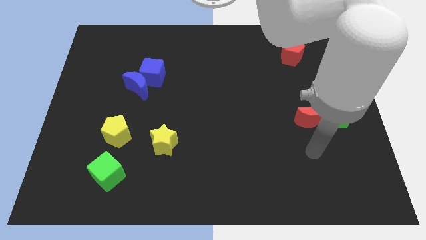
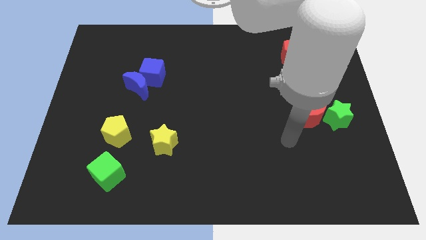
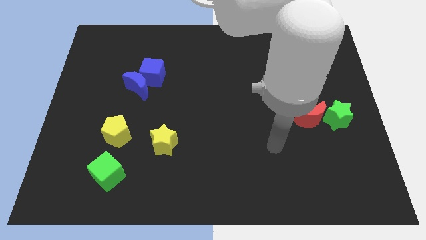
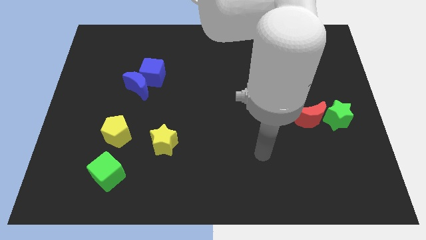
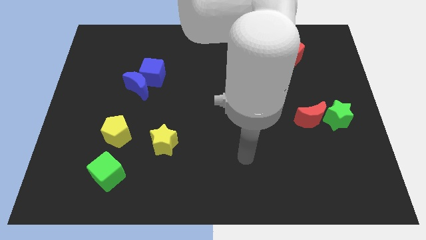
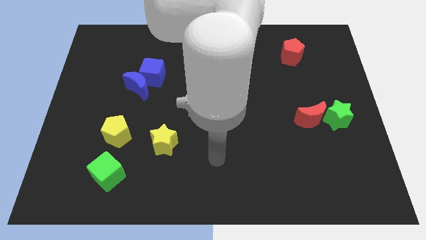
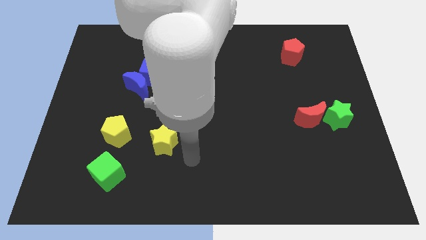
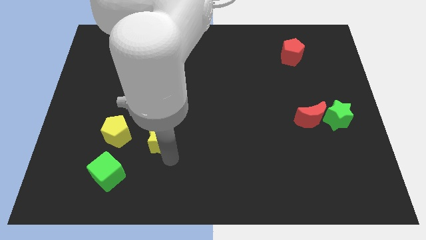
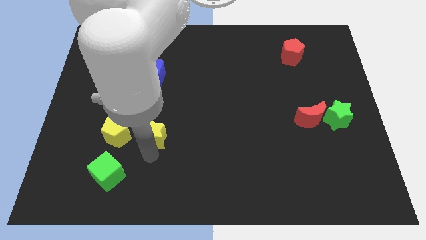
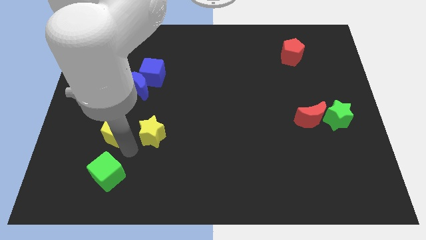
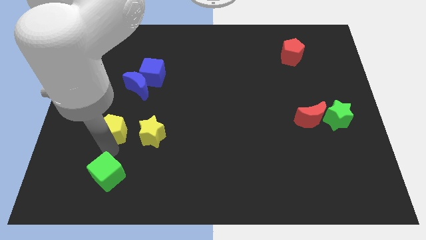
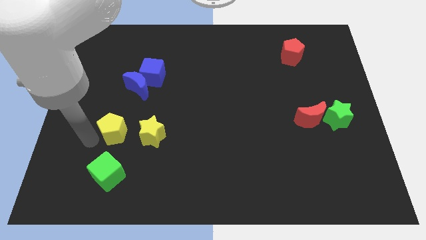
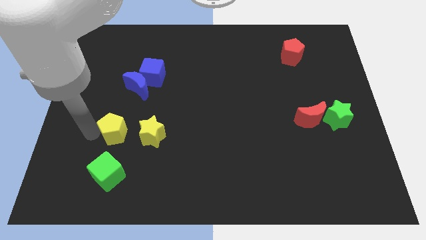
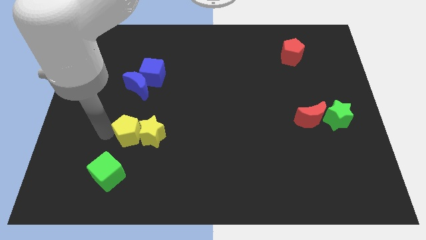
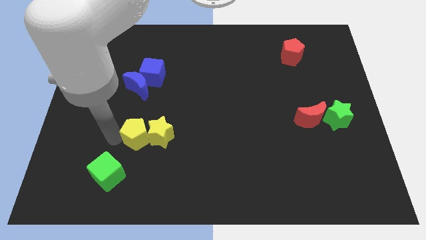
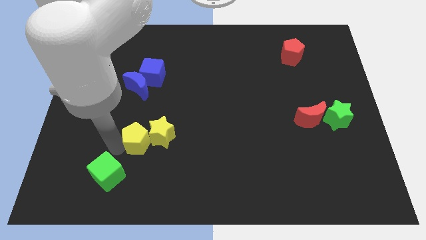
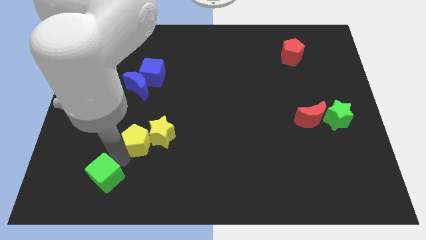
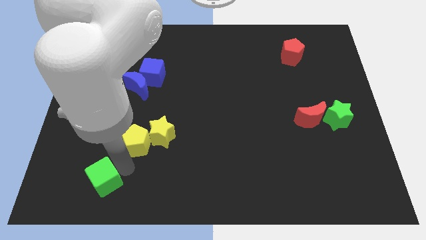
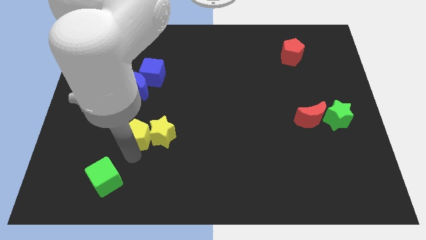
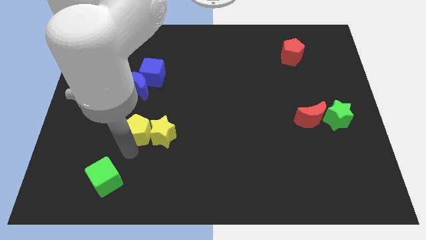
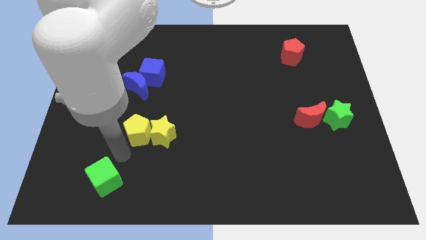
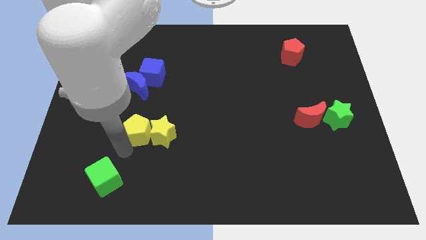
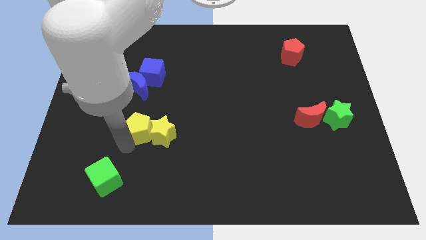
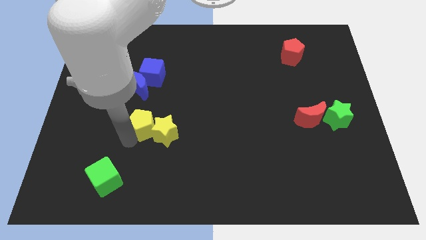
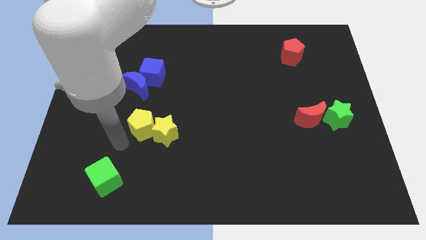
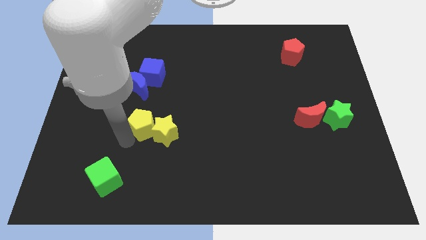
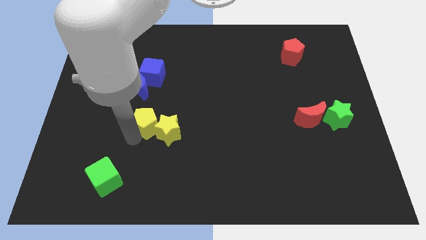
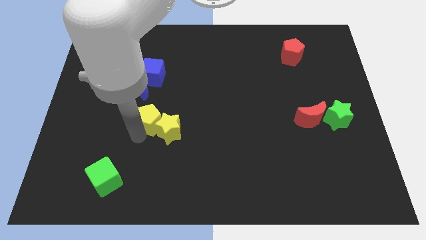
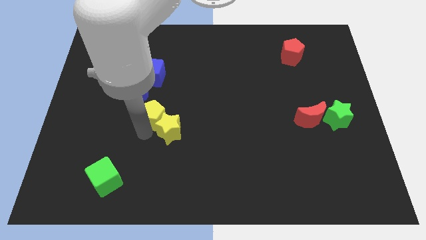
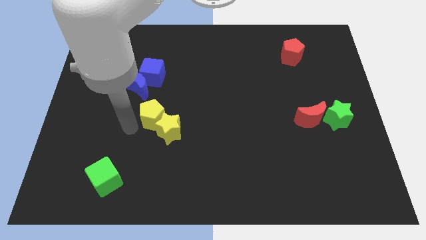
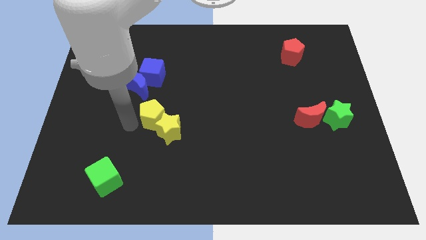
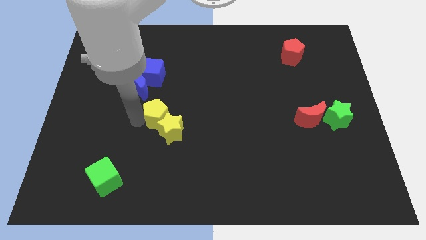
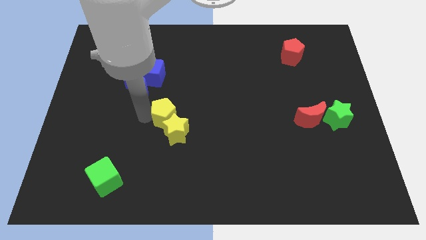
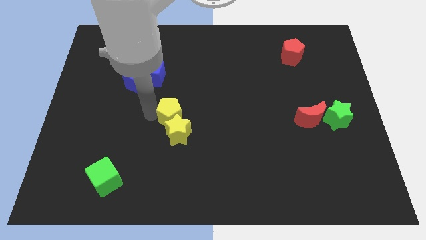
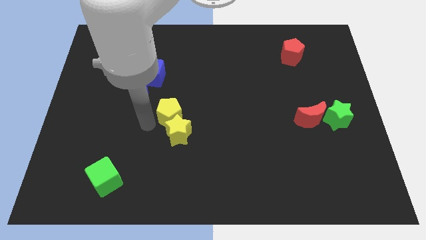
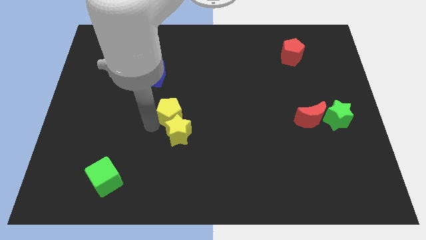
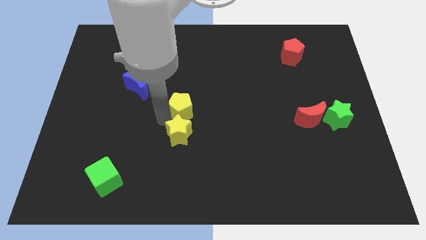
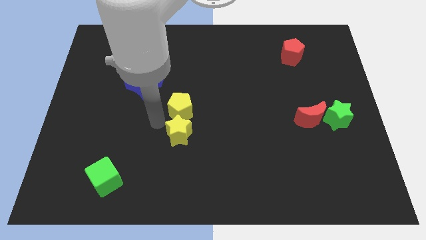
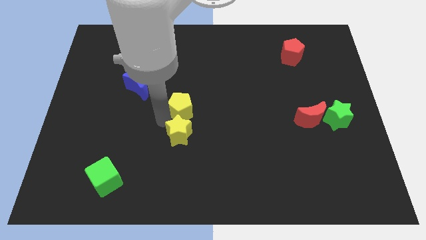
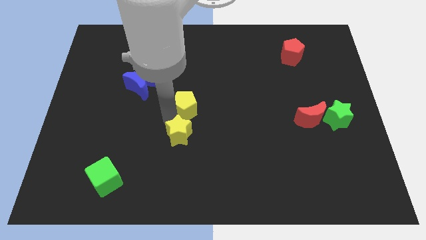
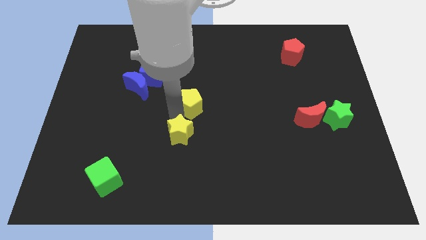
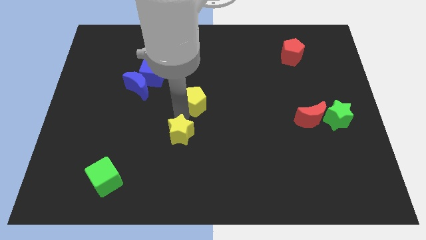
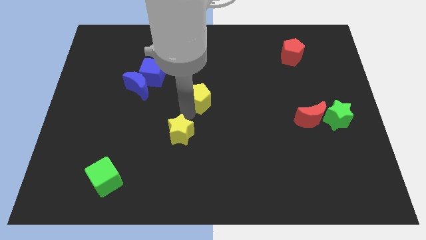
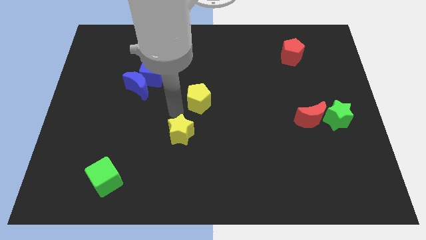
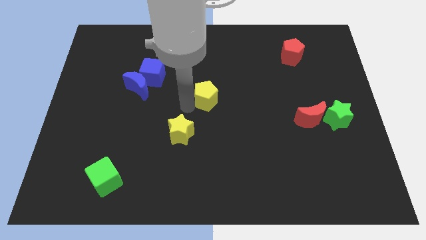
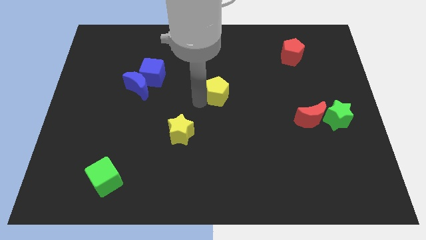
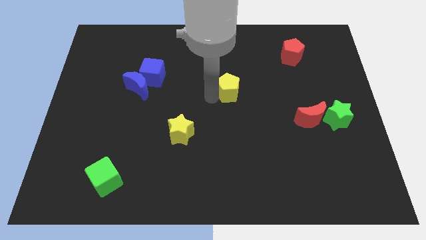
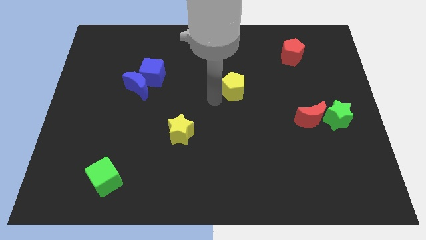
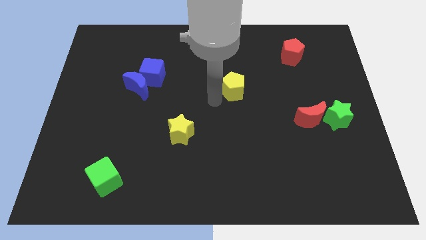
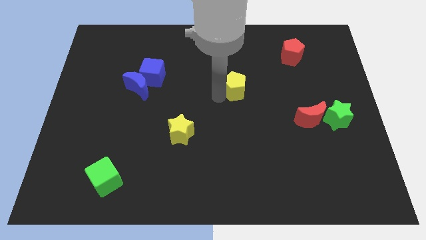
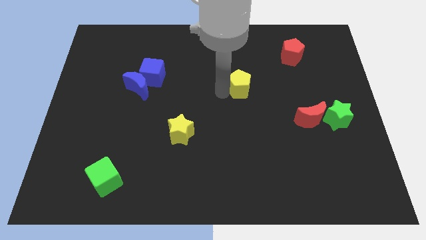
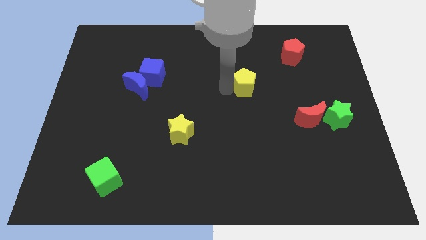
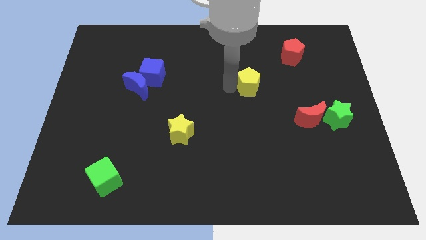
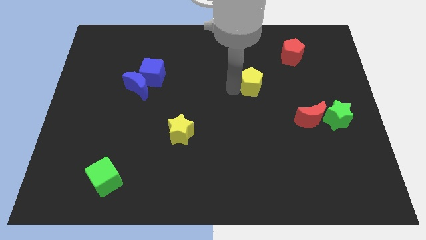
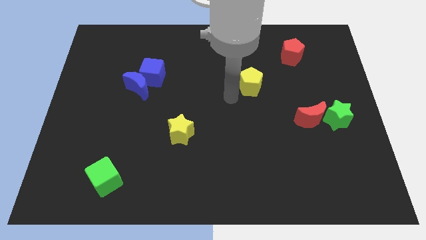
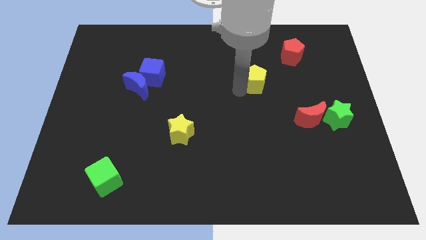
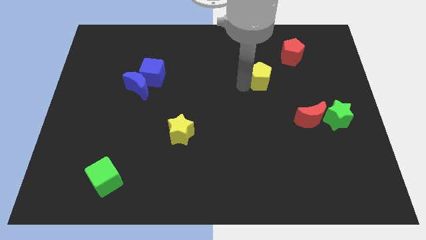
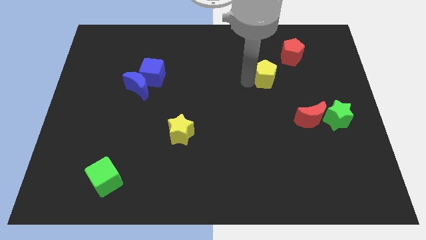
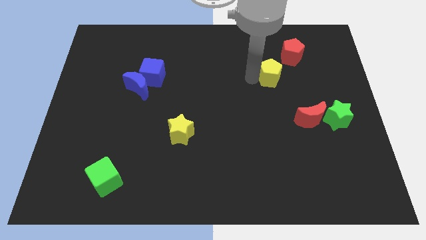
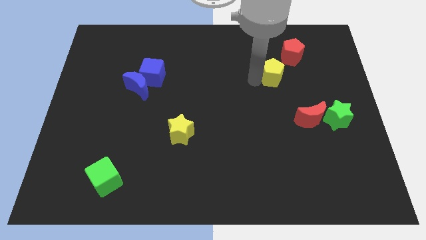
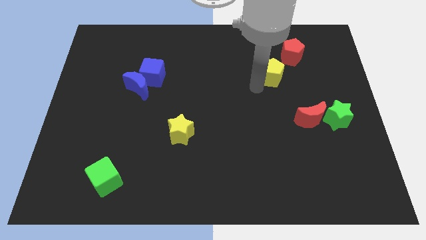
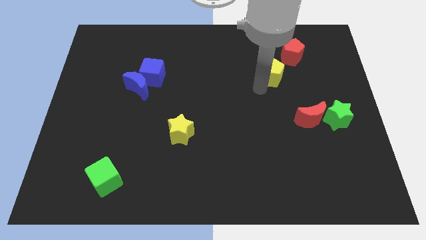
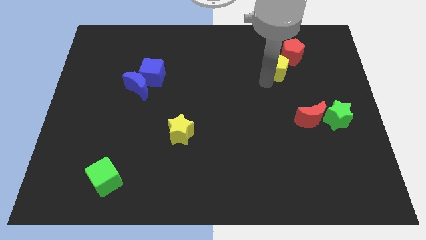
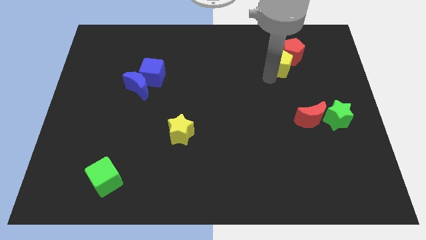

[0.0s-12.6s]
put the yellow pentagon close to the red pentagon

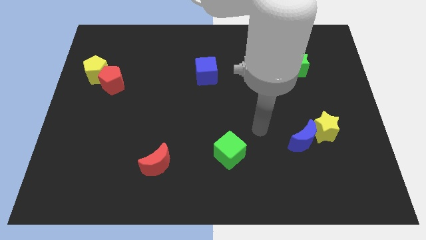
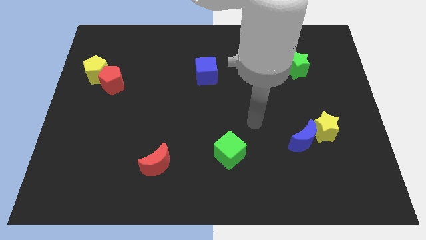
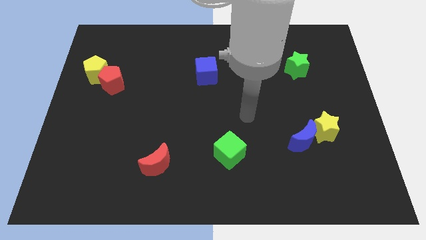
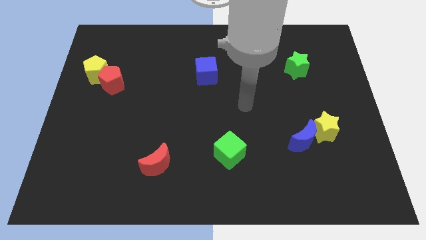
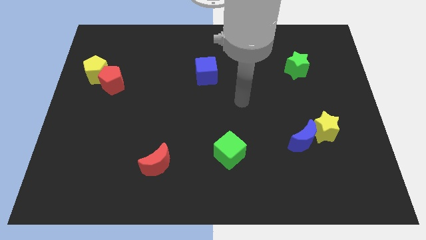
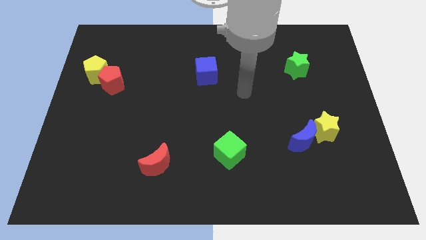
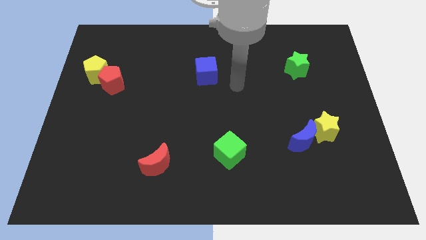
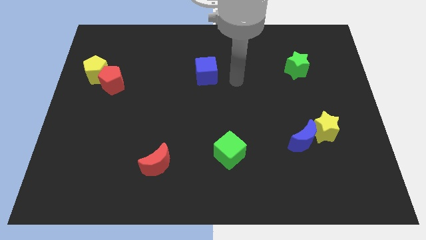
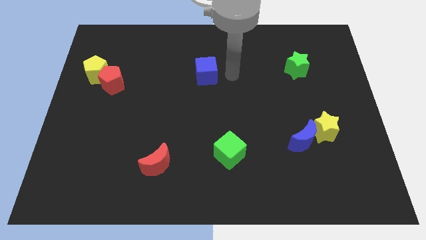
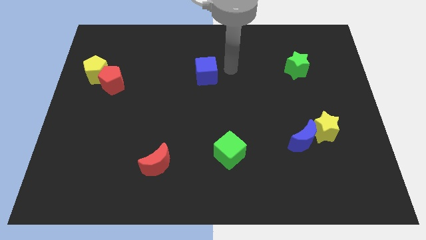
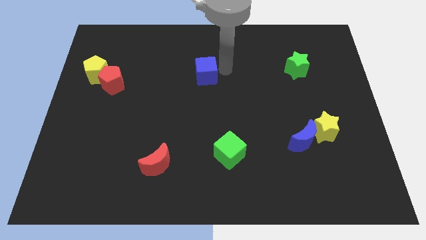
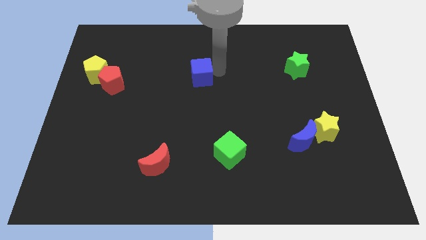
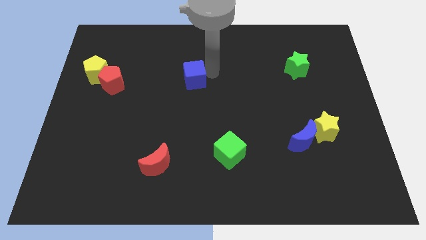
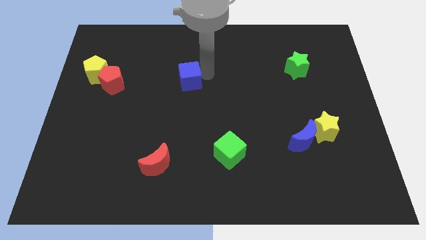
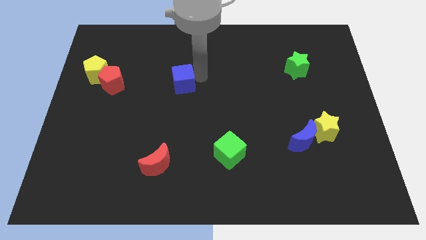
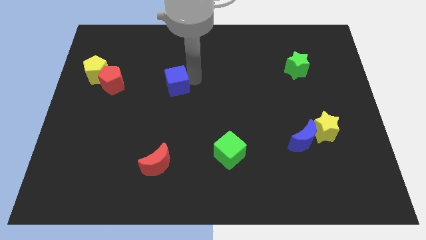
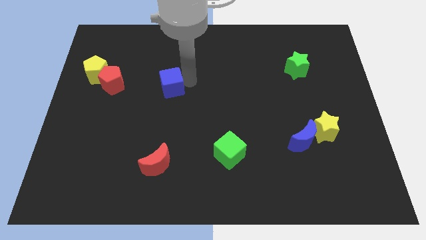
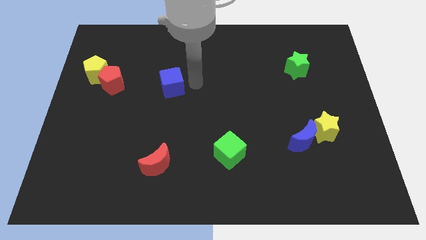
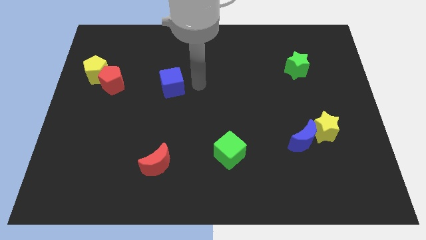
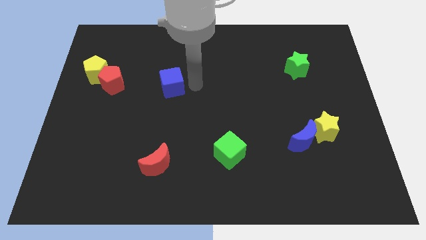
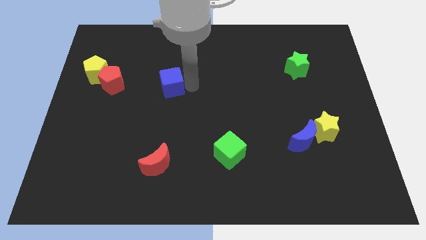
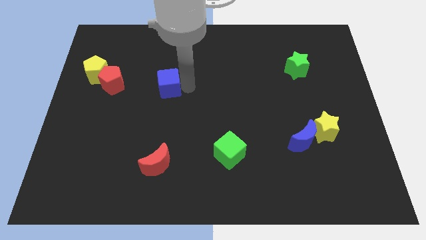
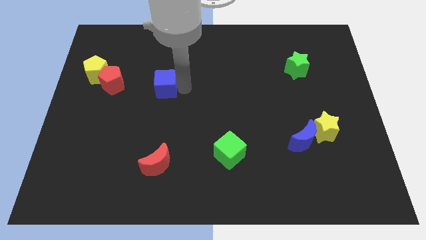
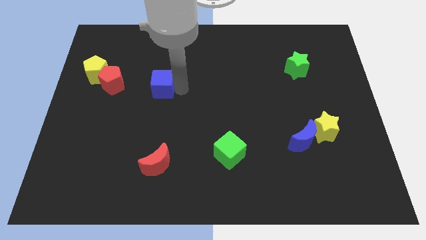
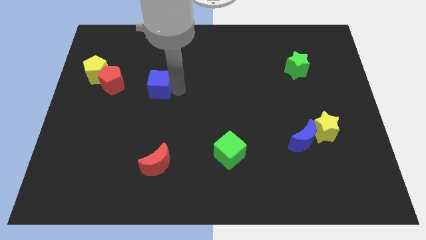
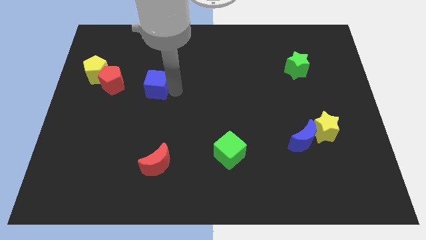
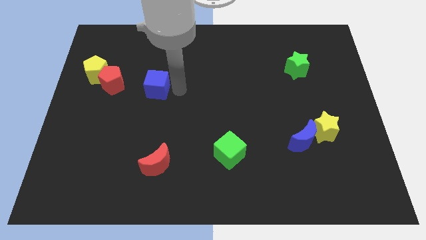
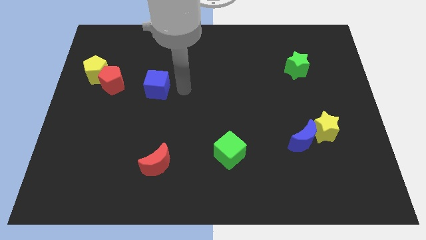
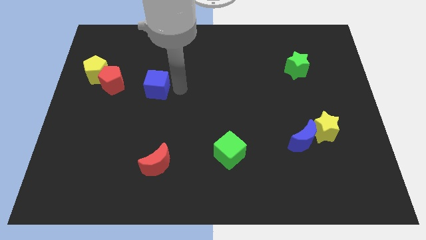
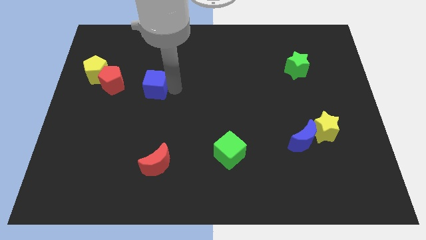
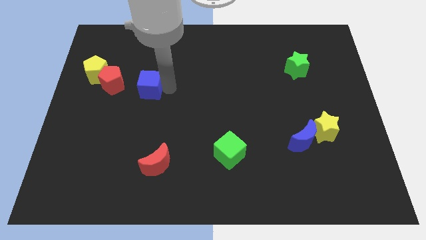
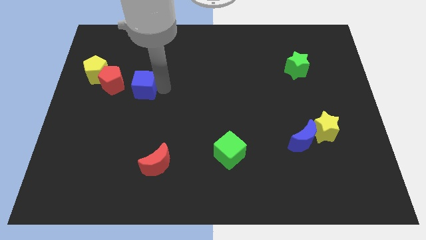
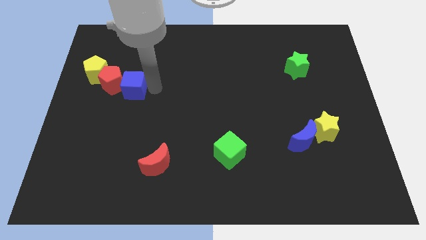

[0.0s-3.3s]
put the blue cube towards the red pentagon
